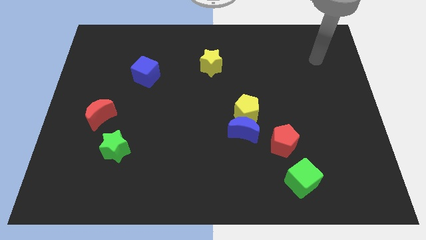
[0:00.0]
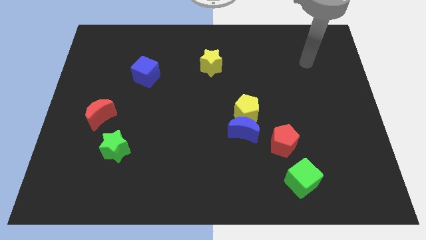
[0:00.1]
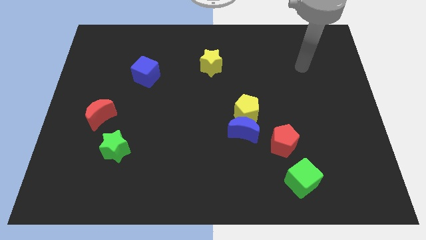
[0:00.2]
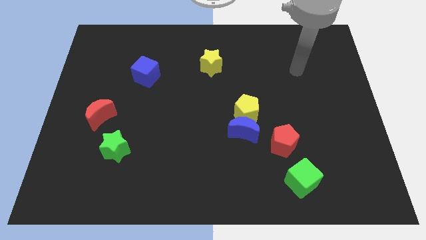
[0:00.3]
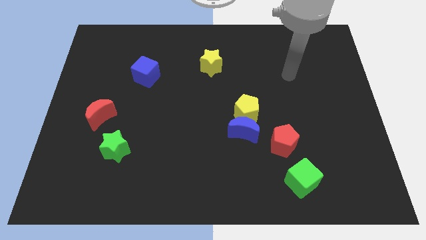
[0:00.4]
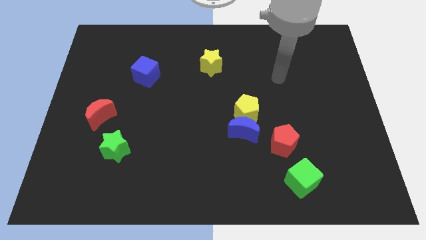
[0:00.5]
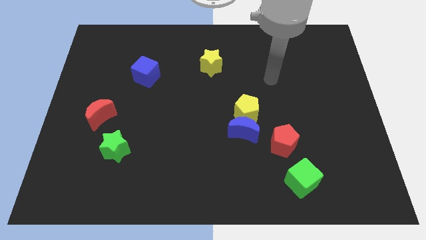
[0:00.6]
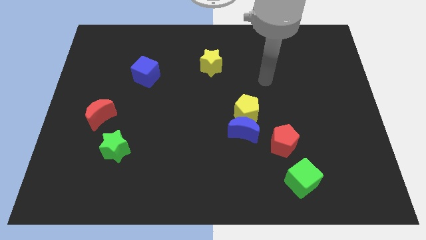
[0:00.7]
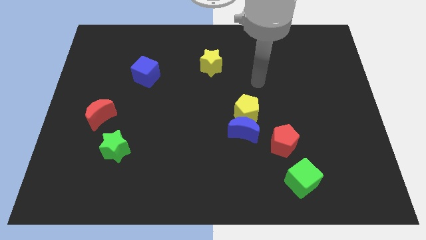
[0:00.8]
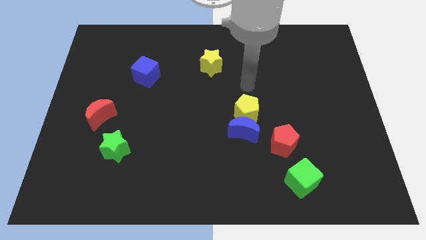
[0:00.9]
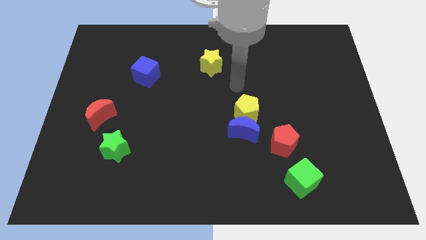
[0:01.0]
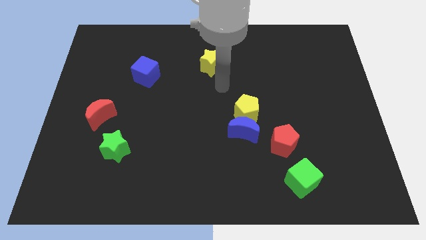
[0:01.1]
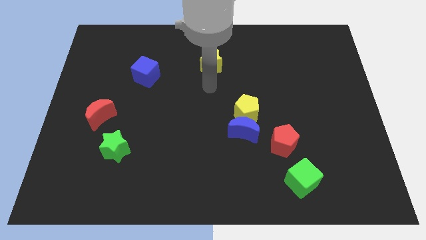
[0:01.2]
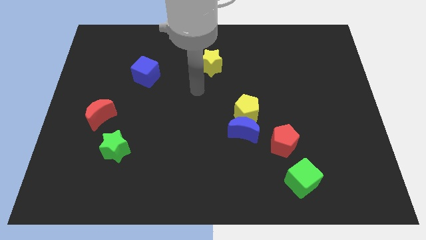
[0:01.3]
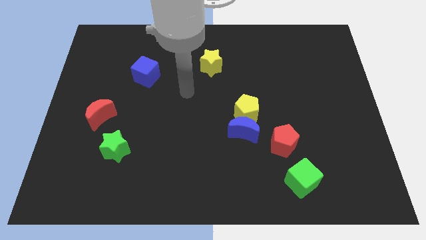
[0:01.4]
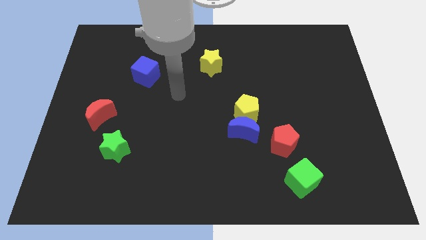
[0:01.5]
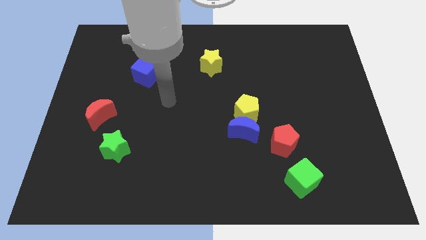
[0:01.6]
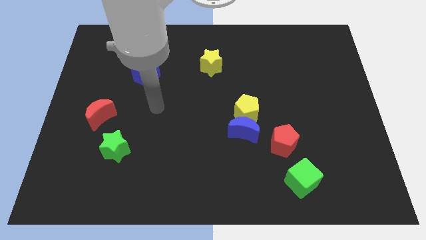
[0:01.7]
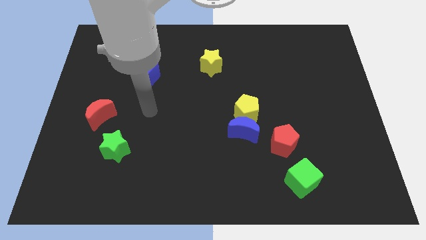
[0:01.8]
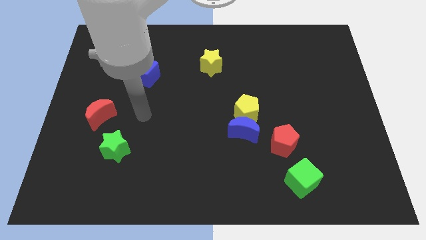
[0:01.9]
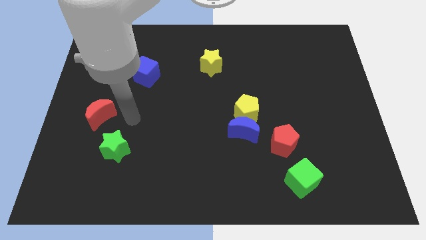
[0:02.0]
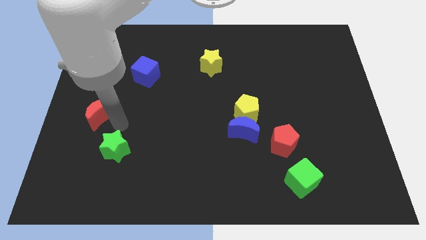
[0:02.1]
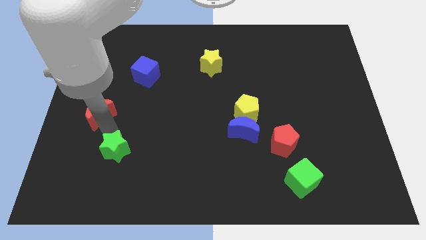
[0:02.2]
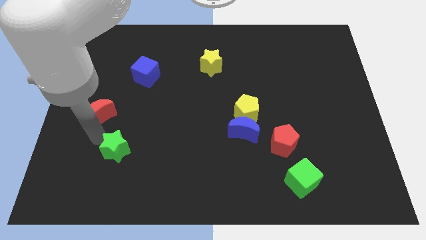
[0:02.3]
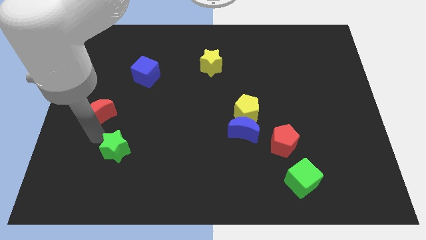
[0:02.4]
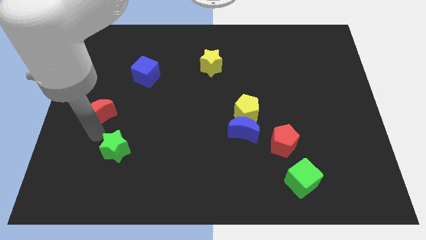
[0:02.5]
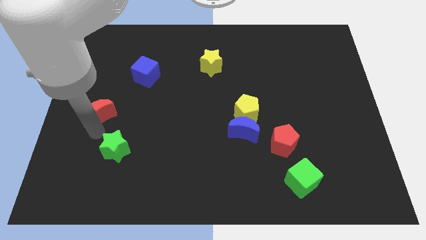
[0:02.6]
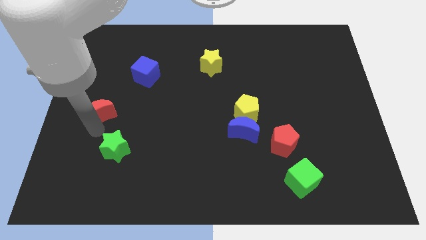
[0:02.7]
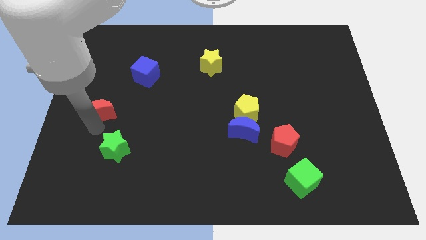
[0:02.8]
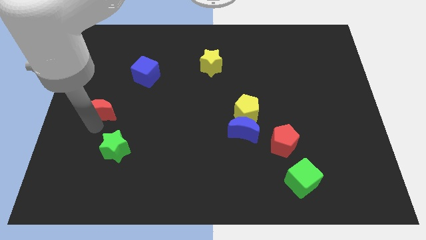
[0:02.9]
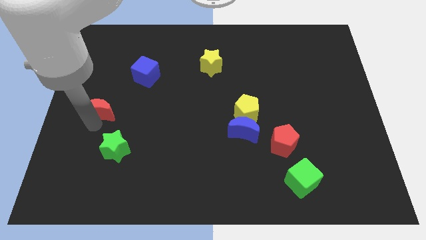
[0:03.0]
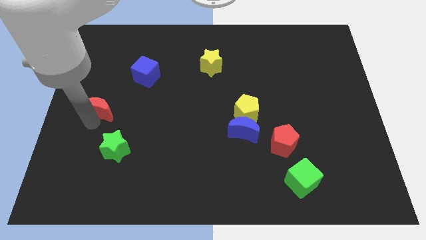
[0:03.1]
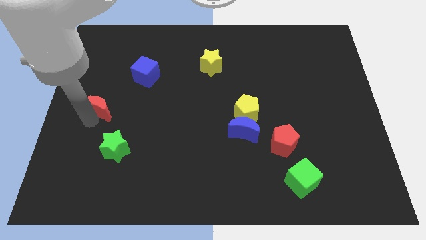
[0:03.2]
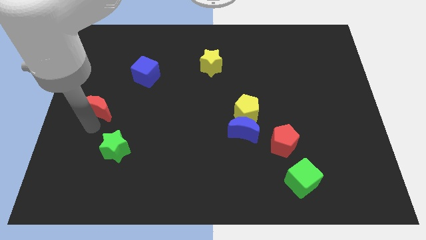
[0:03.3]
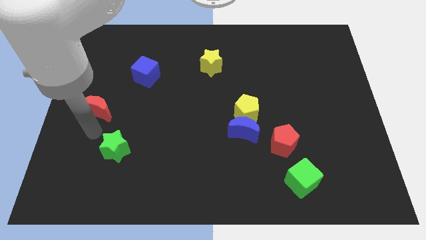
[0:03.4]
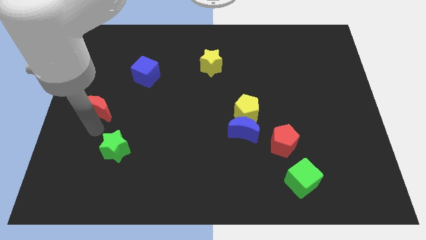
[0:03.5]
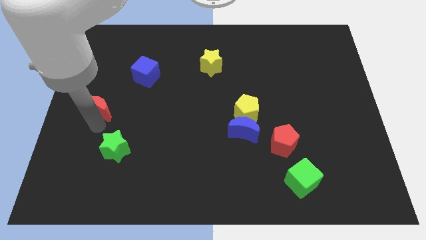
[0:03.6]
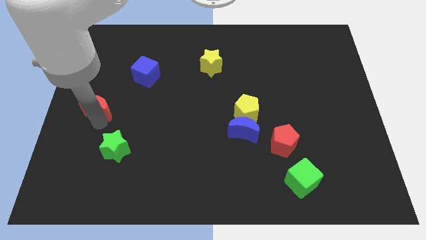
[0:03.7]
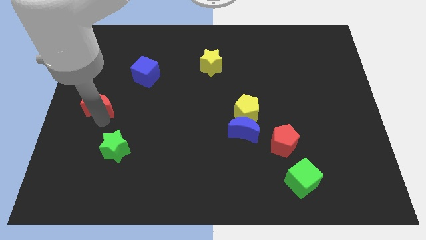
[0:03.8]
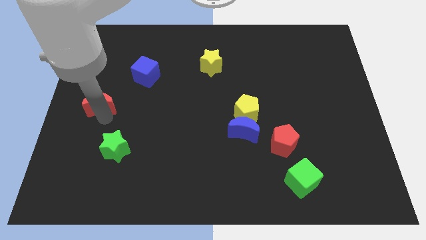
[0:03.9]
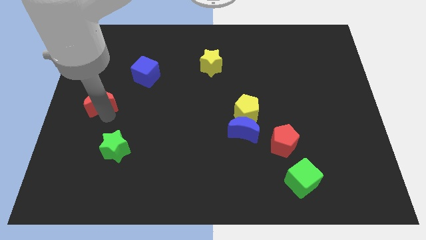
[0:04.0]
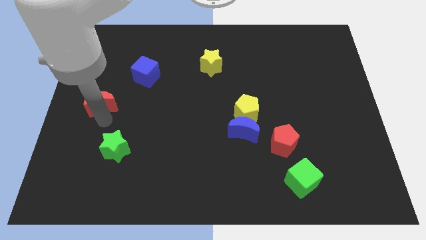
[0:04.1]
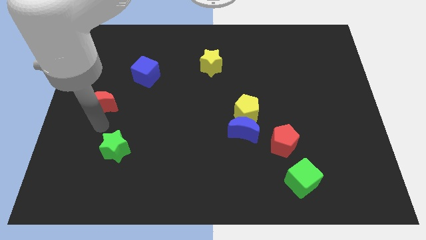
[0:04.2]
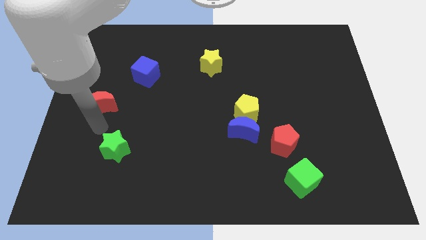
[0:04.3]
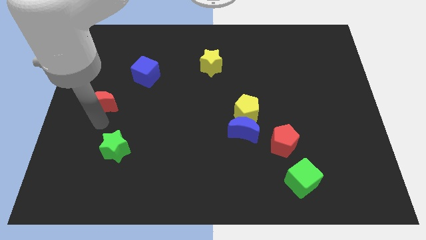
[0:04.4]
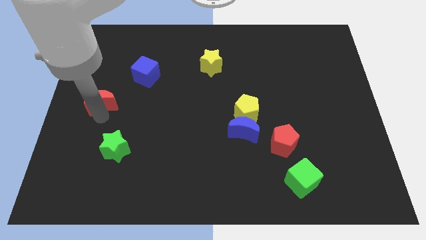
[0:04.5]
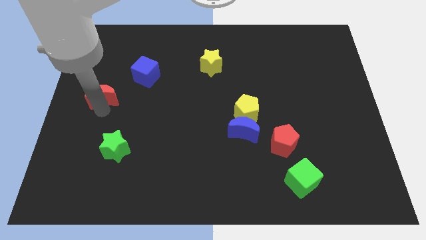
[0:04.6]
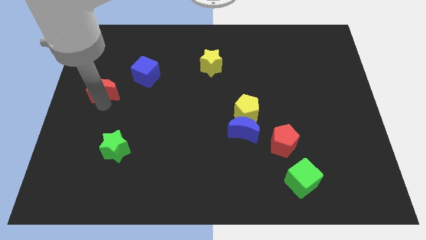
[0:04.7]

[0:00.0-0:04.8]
slide the red moon somewhat up

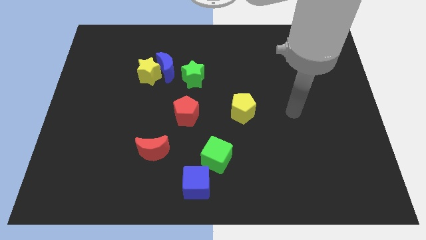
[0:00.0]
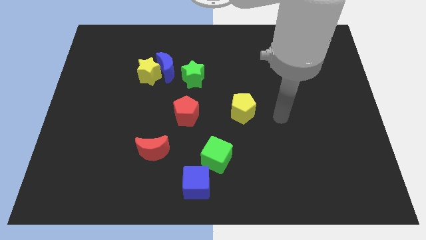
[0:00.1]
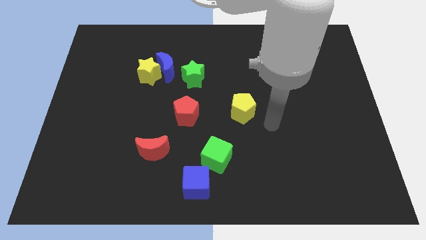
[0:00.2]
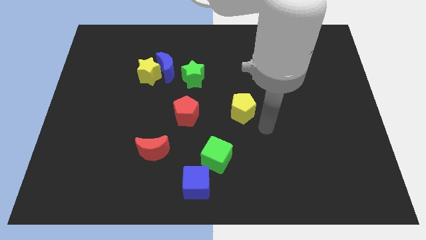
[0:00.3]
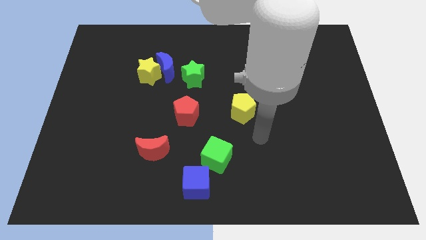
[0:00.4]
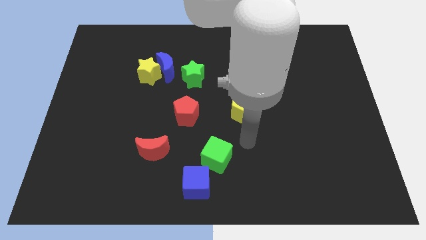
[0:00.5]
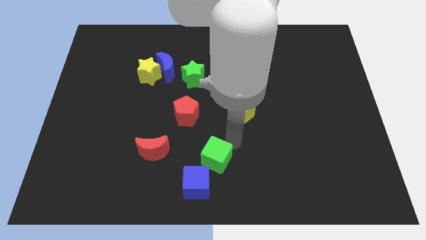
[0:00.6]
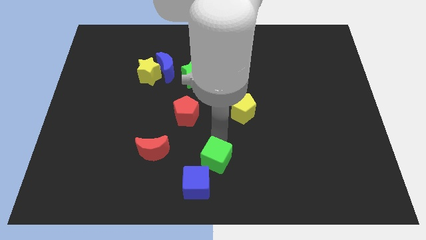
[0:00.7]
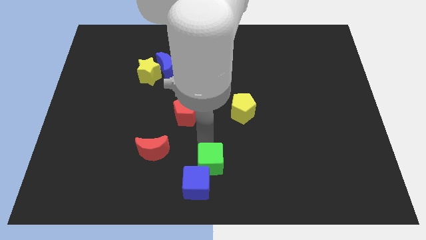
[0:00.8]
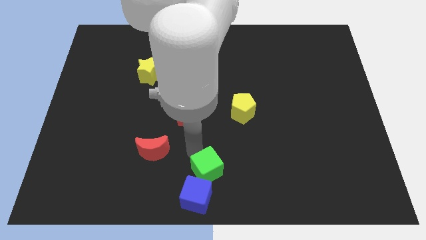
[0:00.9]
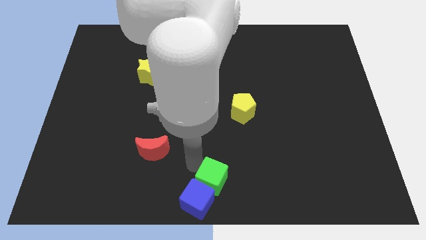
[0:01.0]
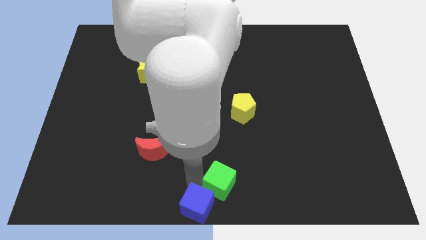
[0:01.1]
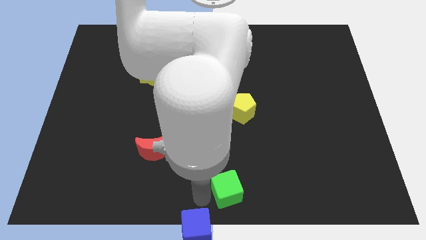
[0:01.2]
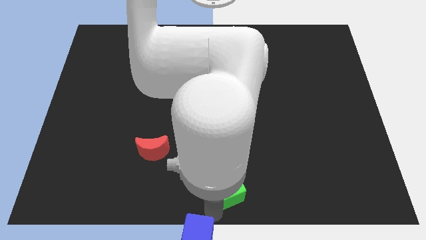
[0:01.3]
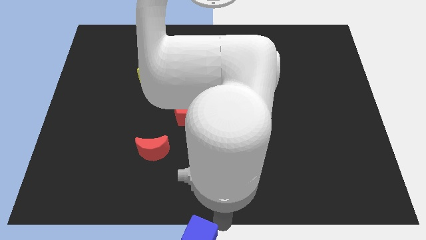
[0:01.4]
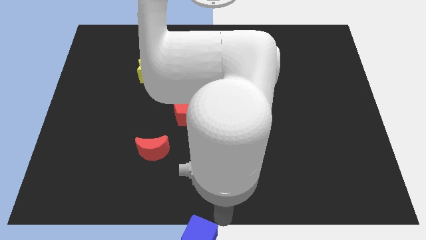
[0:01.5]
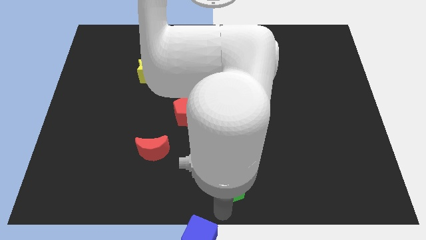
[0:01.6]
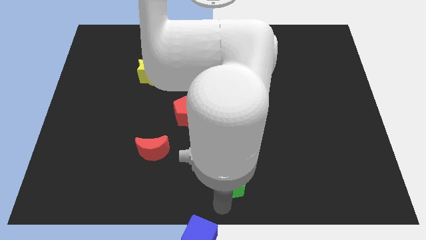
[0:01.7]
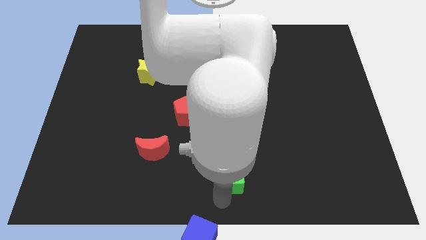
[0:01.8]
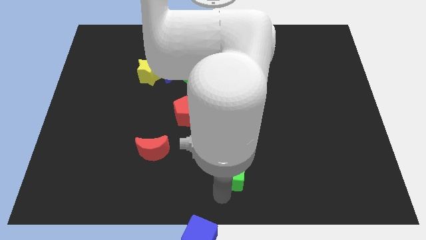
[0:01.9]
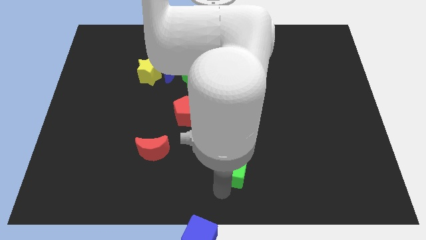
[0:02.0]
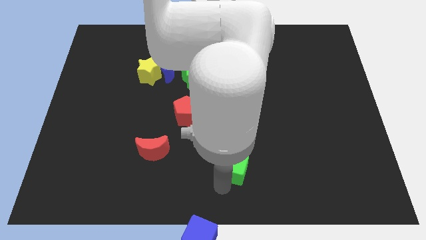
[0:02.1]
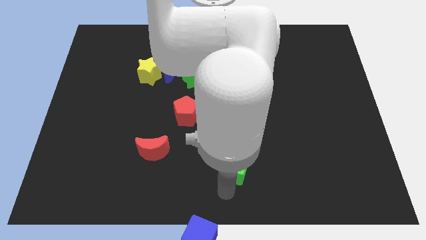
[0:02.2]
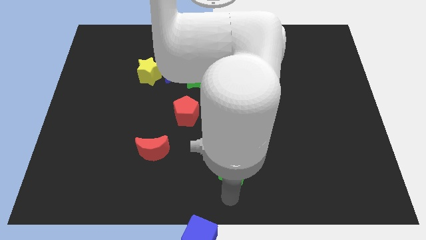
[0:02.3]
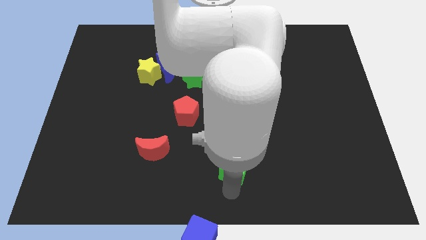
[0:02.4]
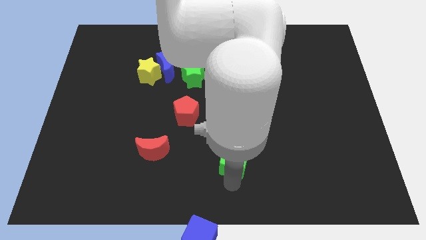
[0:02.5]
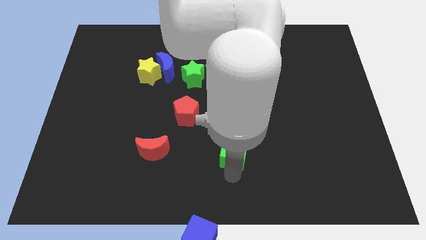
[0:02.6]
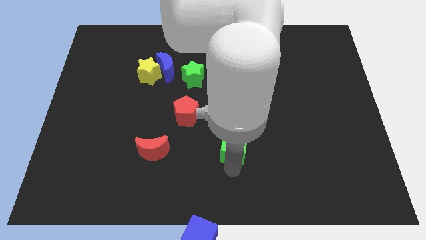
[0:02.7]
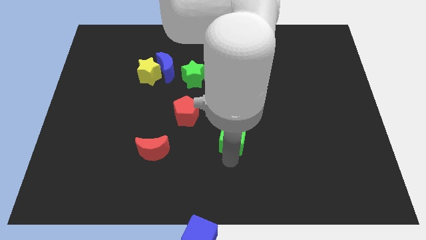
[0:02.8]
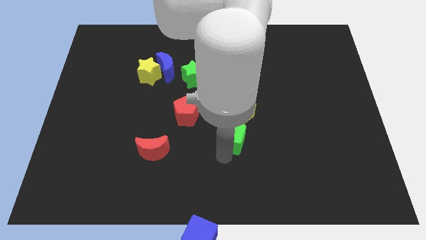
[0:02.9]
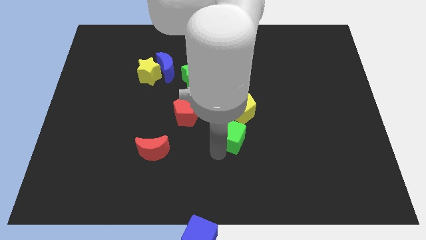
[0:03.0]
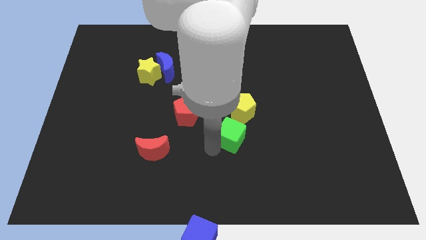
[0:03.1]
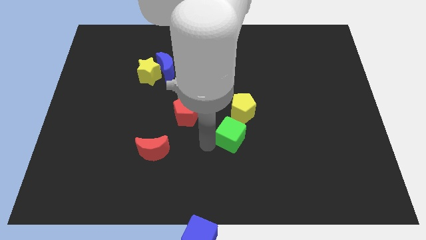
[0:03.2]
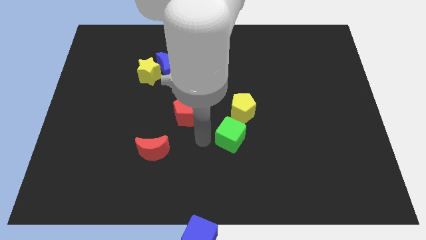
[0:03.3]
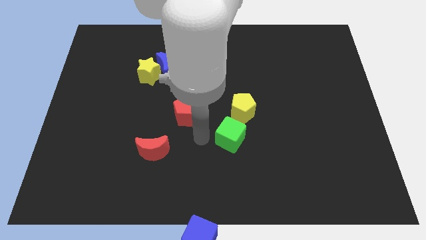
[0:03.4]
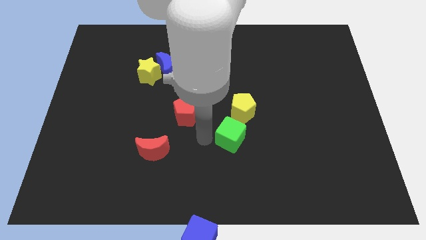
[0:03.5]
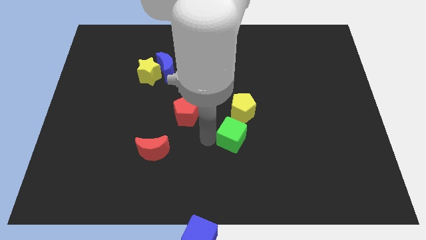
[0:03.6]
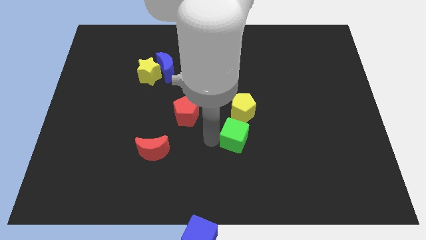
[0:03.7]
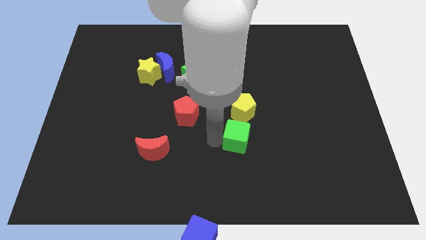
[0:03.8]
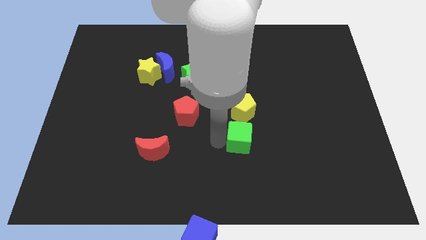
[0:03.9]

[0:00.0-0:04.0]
push the green cube a bit up and right diagonally
